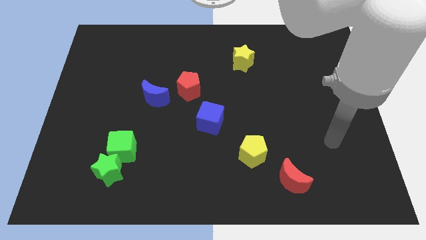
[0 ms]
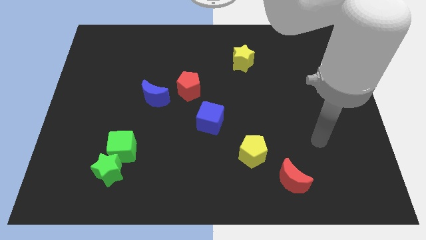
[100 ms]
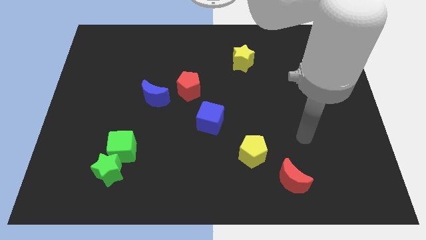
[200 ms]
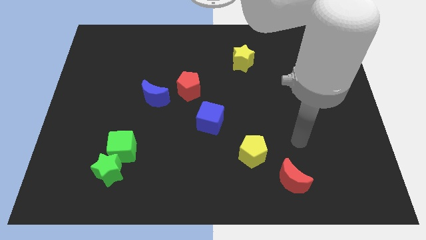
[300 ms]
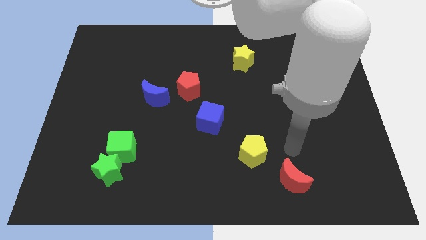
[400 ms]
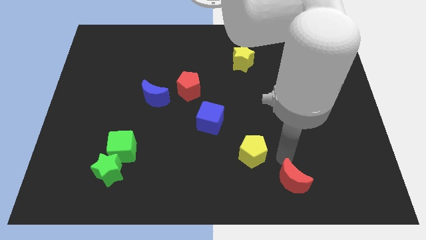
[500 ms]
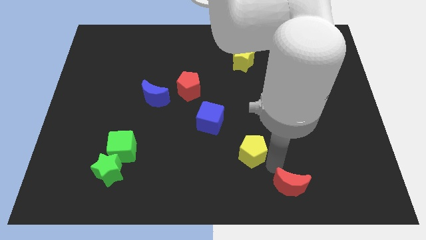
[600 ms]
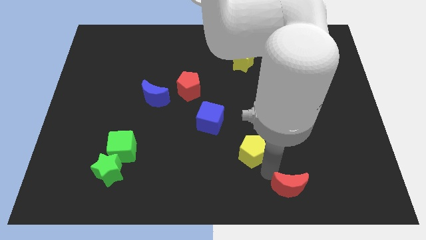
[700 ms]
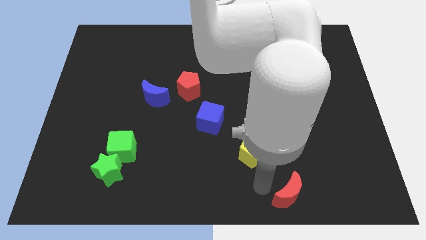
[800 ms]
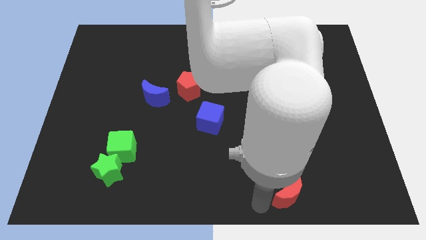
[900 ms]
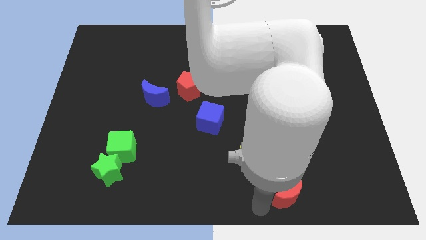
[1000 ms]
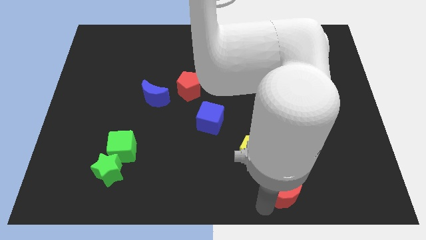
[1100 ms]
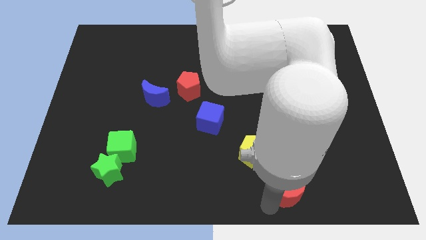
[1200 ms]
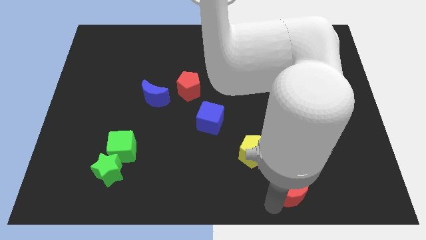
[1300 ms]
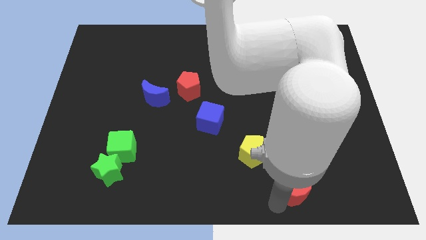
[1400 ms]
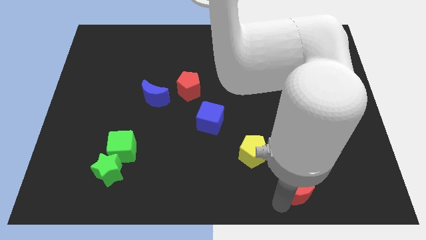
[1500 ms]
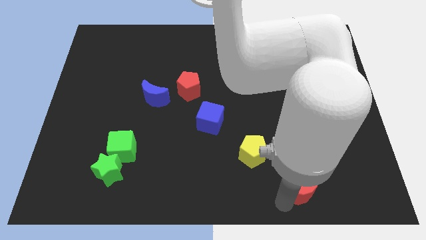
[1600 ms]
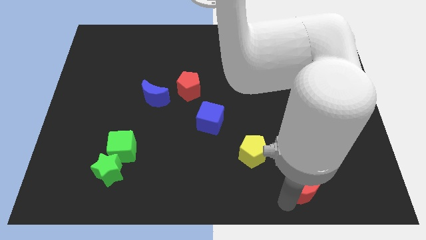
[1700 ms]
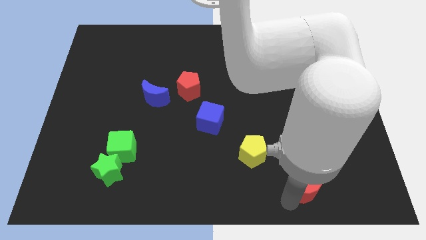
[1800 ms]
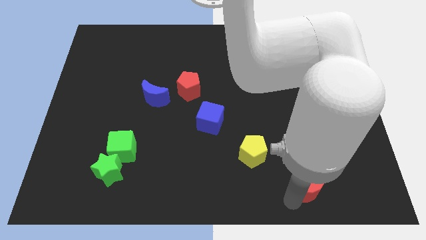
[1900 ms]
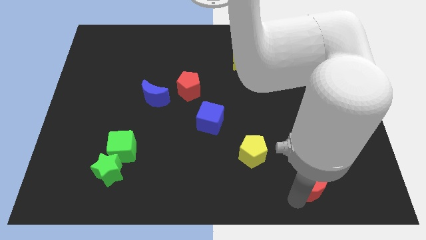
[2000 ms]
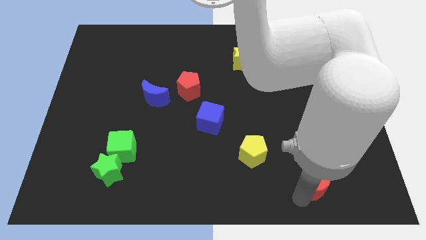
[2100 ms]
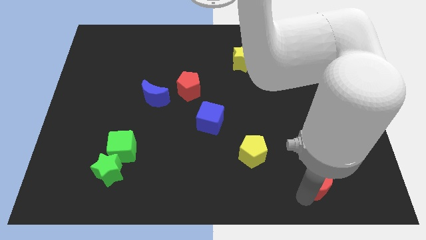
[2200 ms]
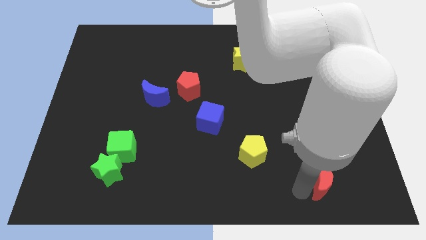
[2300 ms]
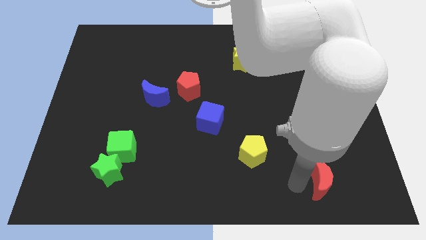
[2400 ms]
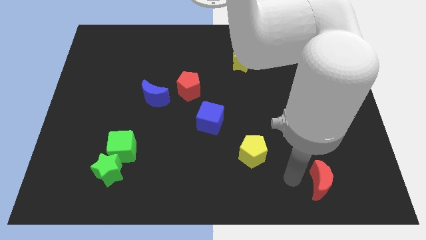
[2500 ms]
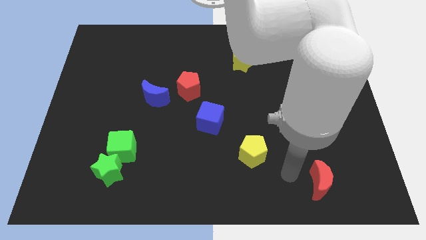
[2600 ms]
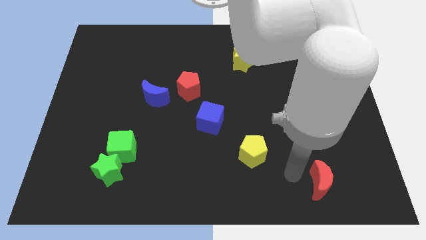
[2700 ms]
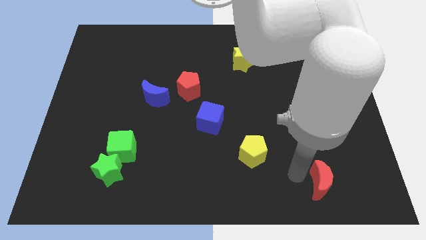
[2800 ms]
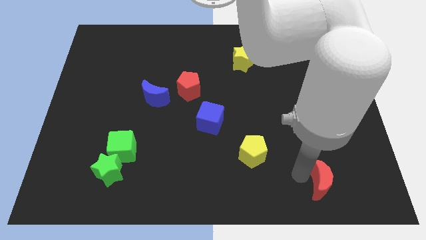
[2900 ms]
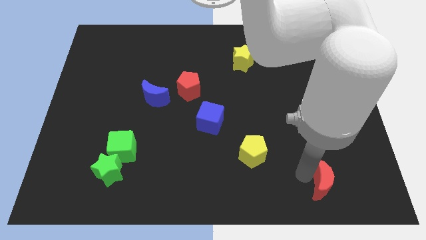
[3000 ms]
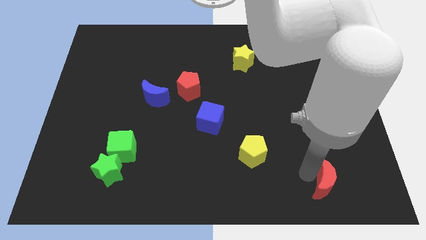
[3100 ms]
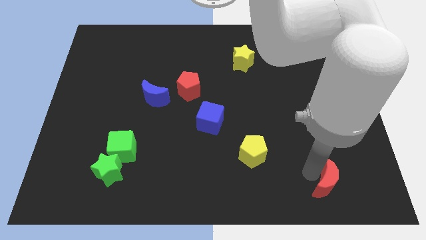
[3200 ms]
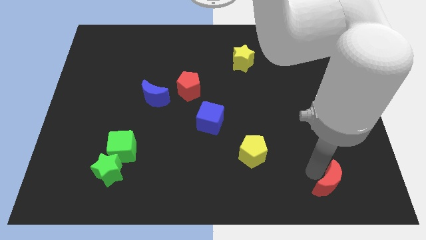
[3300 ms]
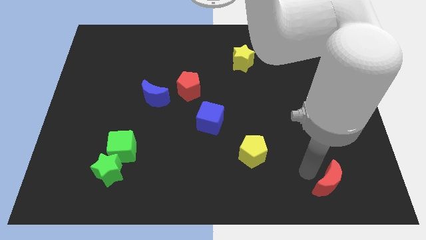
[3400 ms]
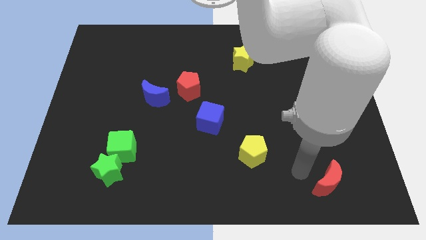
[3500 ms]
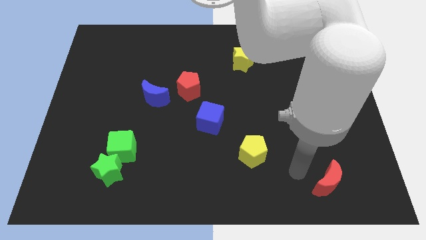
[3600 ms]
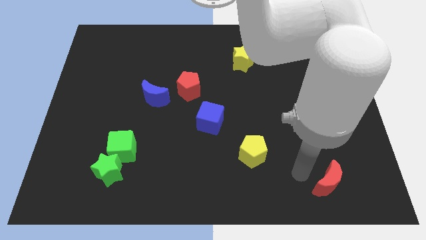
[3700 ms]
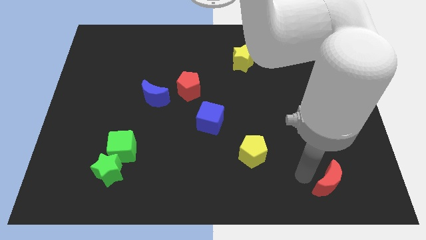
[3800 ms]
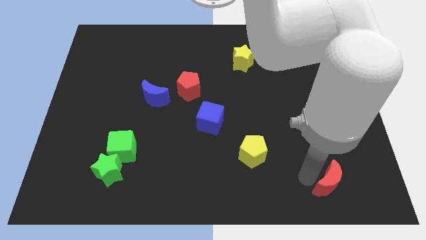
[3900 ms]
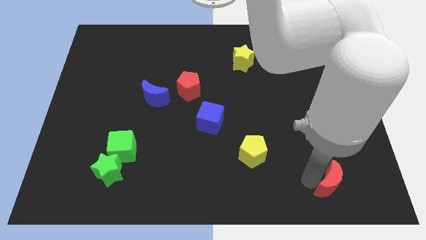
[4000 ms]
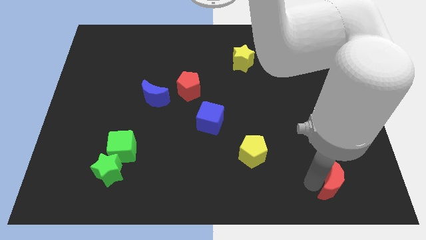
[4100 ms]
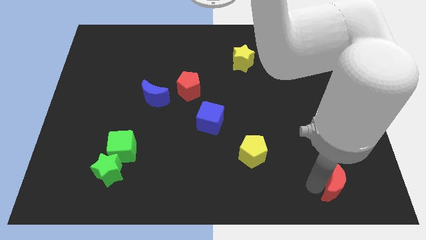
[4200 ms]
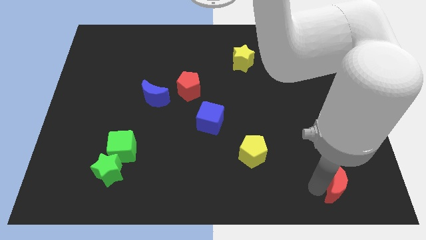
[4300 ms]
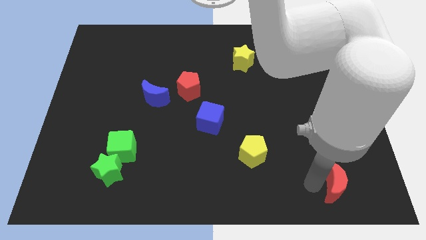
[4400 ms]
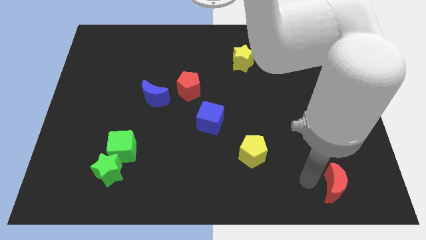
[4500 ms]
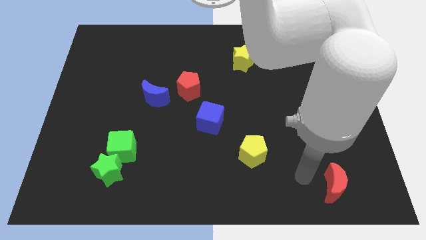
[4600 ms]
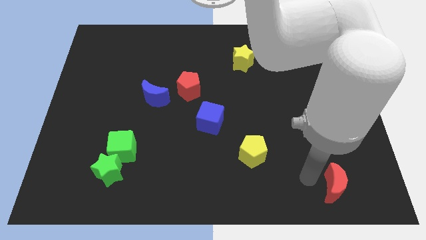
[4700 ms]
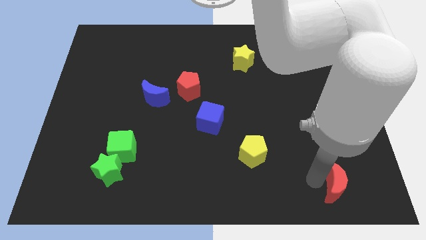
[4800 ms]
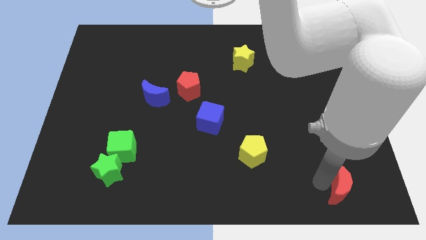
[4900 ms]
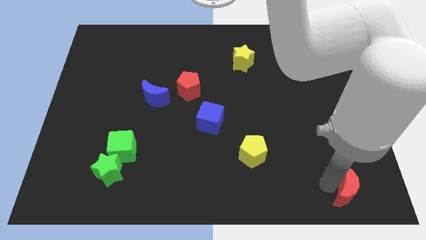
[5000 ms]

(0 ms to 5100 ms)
move the red moon to the lower right corner

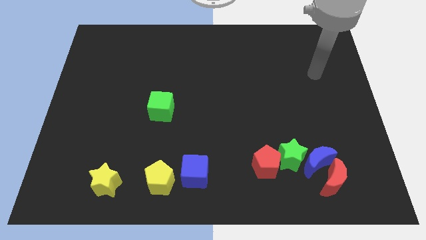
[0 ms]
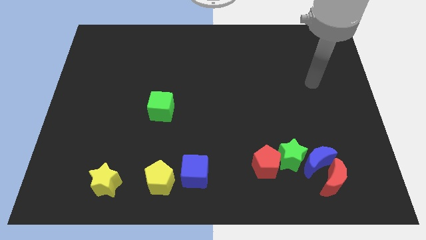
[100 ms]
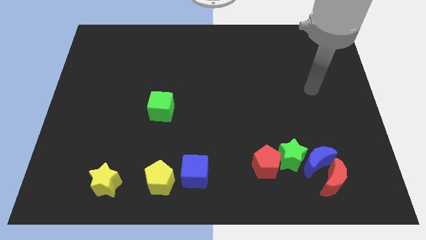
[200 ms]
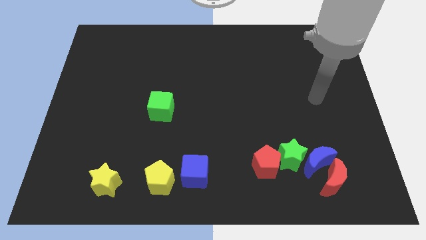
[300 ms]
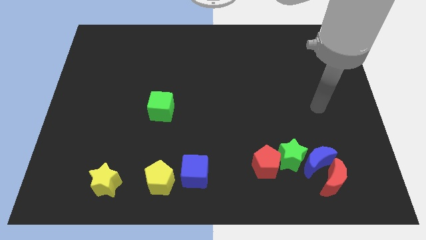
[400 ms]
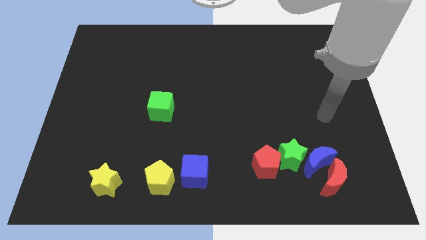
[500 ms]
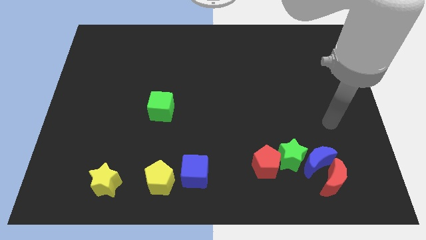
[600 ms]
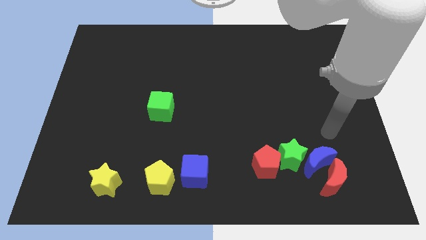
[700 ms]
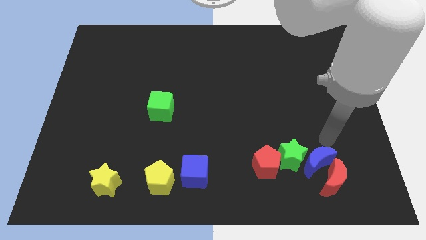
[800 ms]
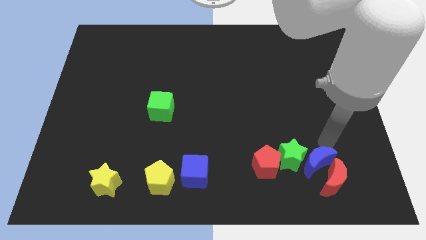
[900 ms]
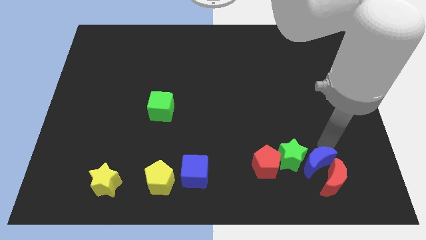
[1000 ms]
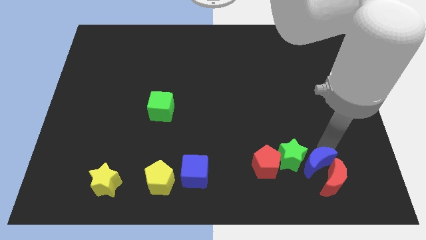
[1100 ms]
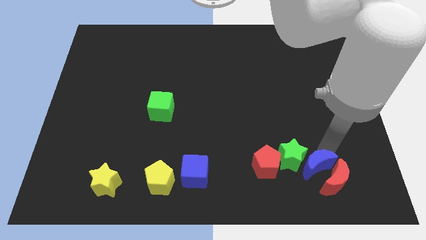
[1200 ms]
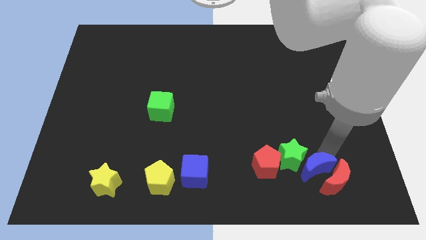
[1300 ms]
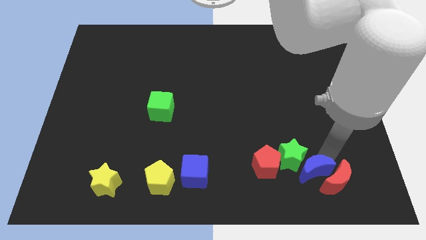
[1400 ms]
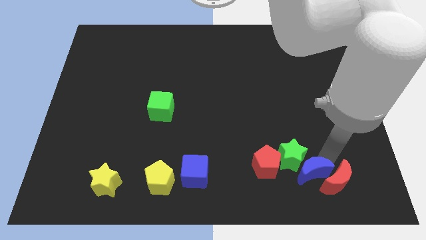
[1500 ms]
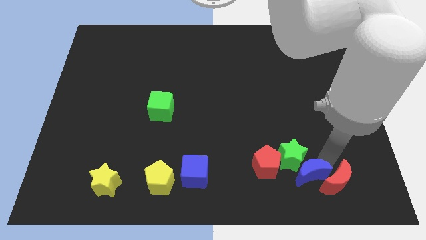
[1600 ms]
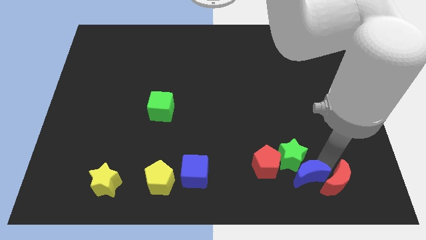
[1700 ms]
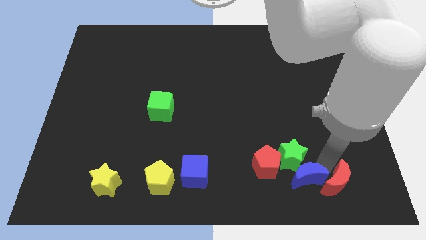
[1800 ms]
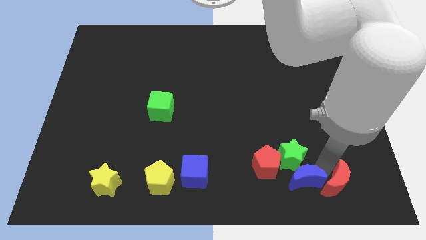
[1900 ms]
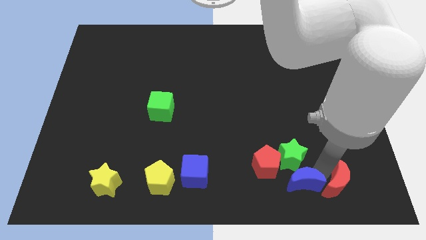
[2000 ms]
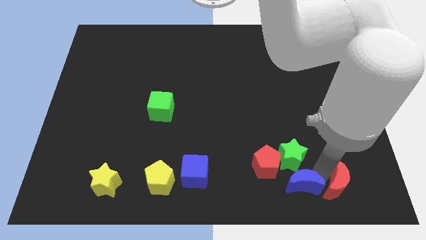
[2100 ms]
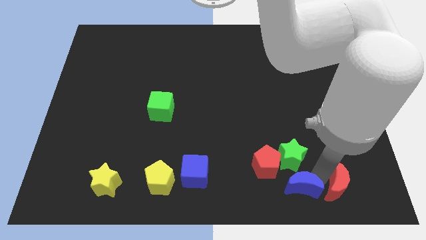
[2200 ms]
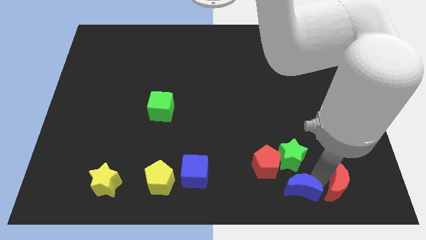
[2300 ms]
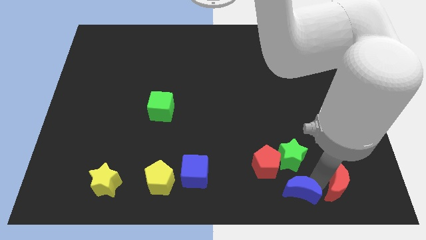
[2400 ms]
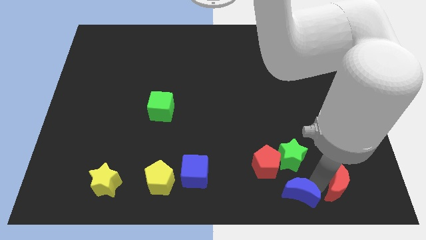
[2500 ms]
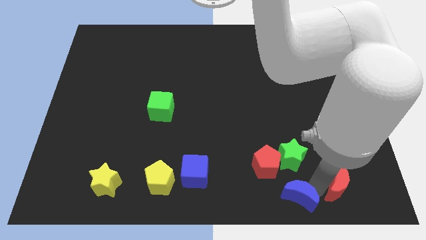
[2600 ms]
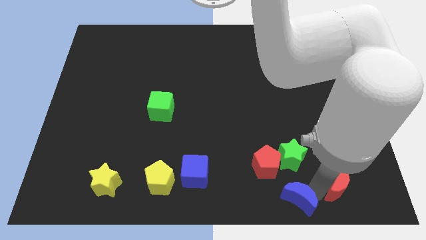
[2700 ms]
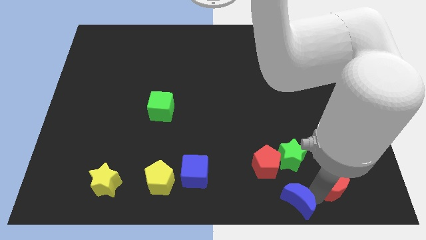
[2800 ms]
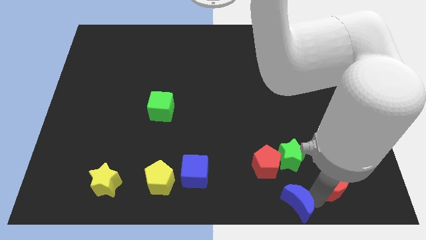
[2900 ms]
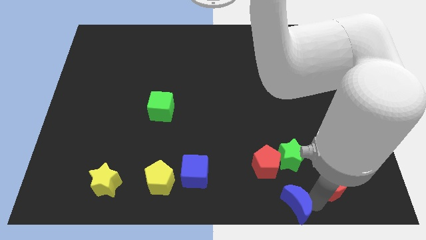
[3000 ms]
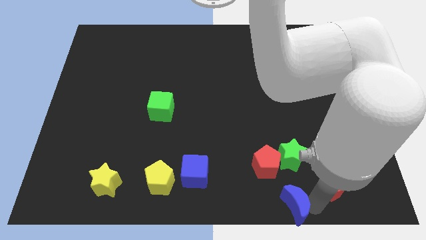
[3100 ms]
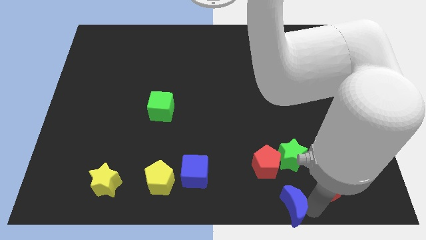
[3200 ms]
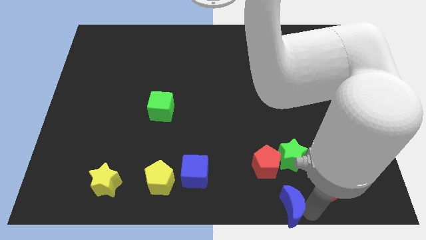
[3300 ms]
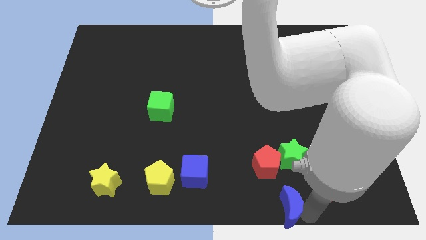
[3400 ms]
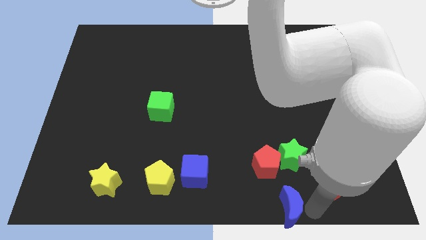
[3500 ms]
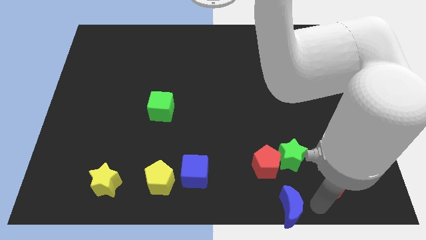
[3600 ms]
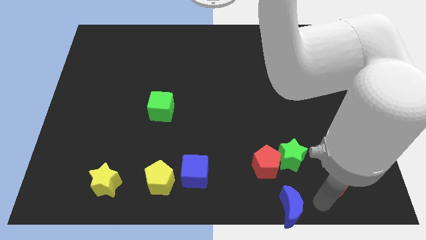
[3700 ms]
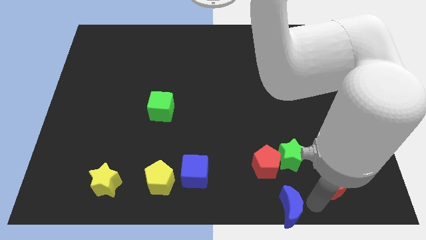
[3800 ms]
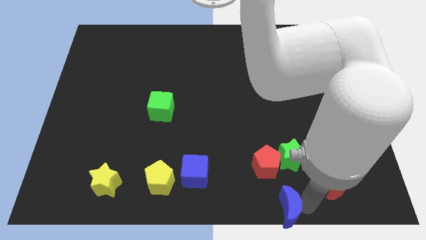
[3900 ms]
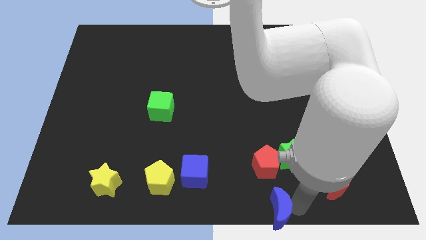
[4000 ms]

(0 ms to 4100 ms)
move the blue moon to the bottom
